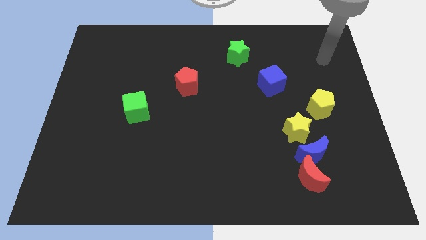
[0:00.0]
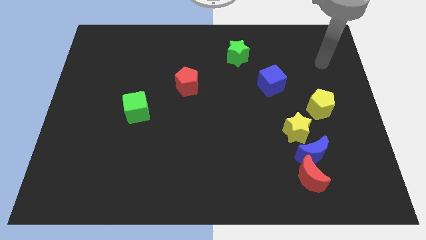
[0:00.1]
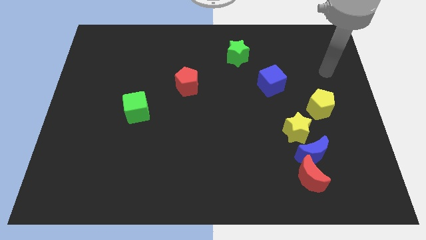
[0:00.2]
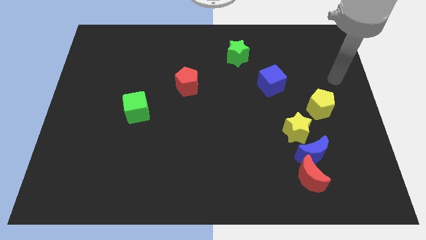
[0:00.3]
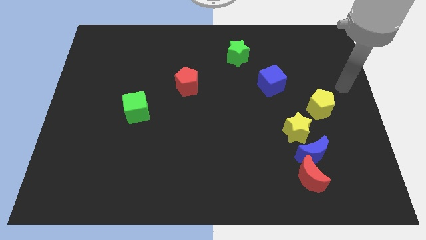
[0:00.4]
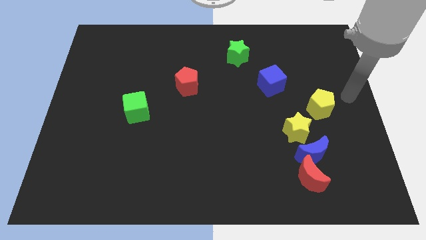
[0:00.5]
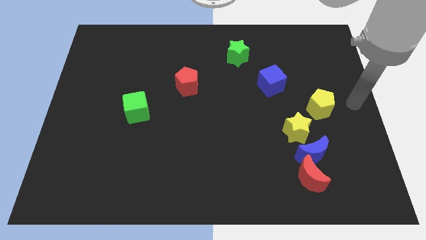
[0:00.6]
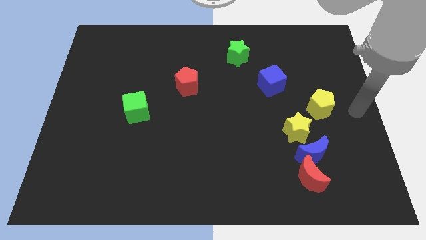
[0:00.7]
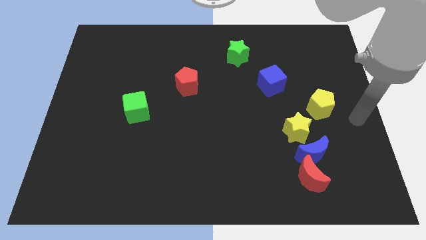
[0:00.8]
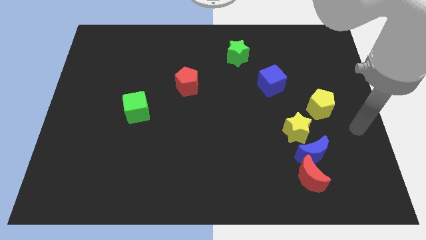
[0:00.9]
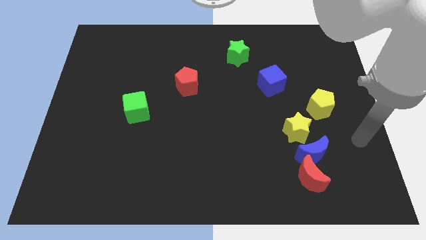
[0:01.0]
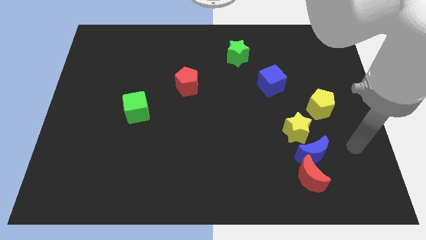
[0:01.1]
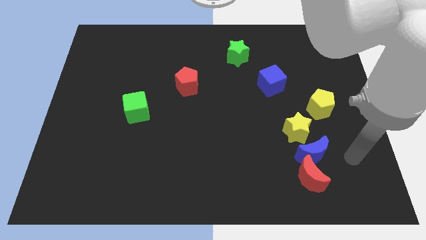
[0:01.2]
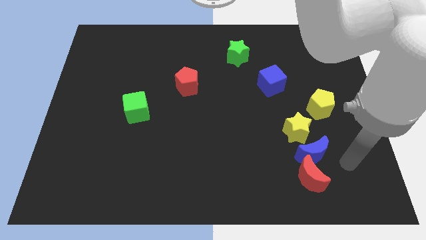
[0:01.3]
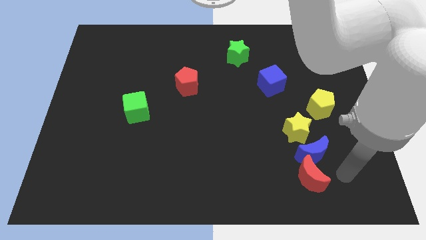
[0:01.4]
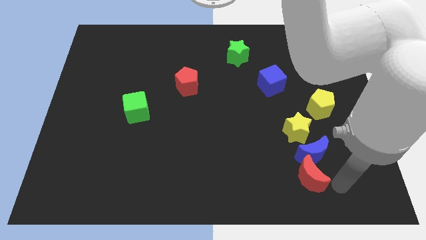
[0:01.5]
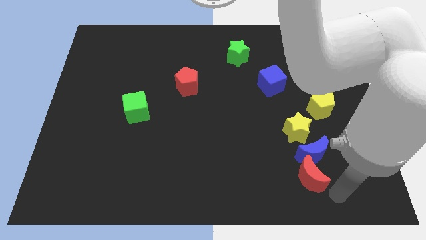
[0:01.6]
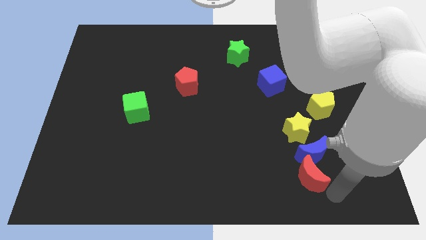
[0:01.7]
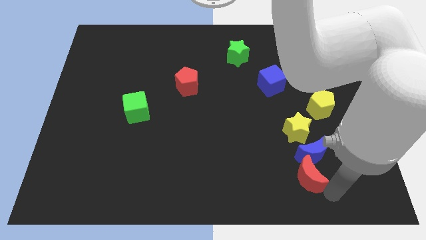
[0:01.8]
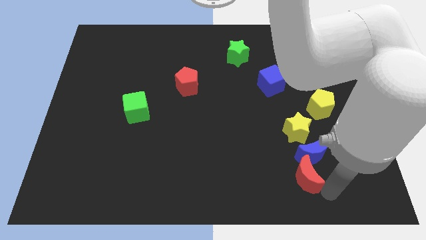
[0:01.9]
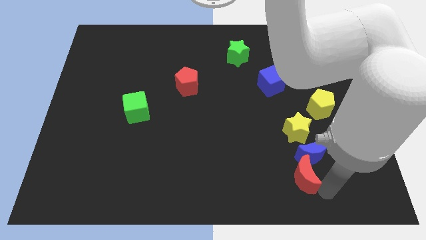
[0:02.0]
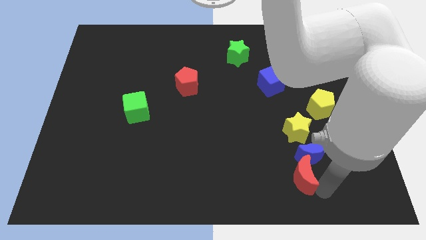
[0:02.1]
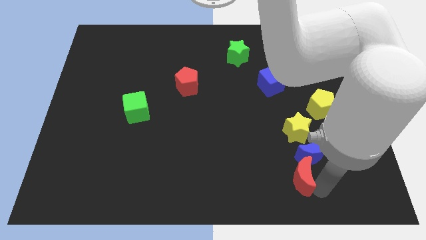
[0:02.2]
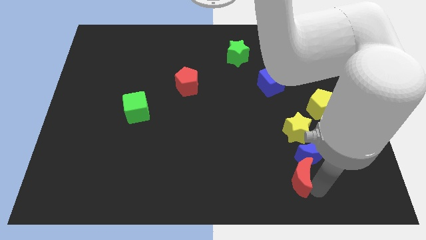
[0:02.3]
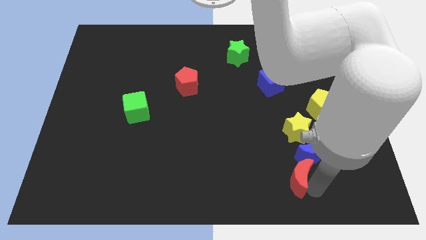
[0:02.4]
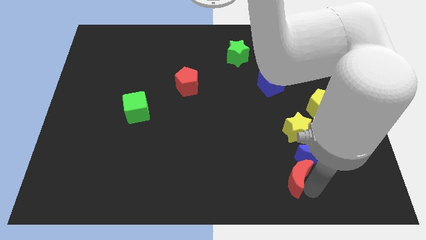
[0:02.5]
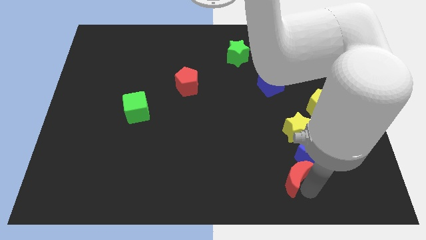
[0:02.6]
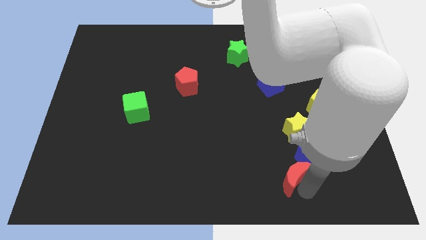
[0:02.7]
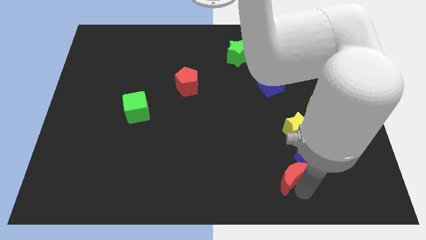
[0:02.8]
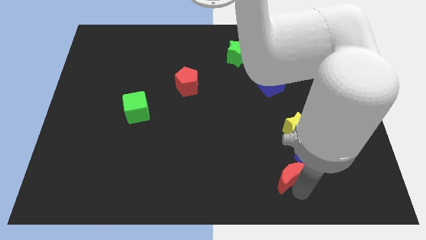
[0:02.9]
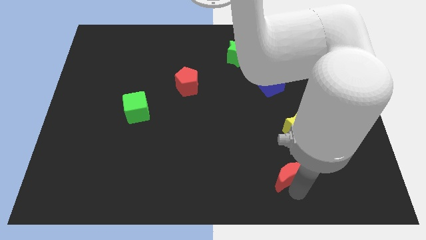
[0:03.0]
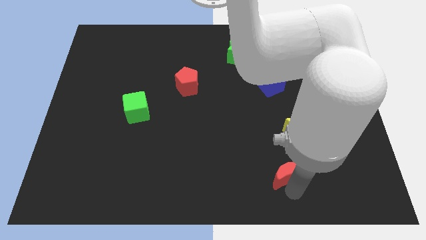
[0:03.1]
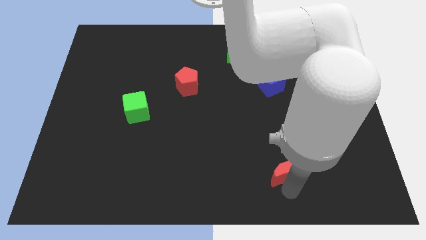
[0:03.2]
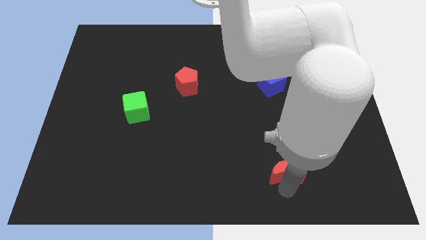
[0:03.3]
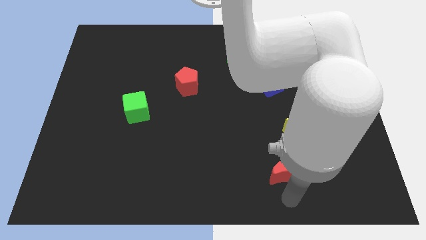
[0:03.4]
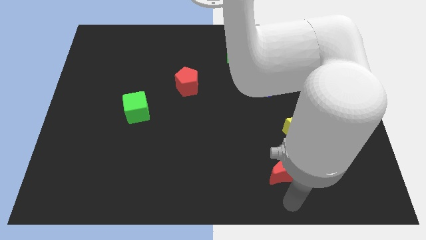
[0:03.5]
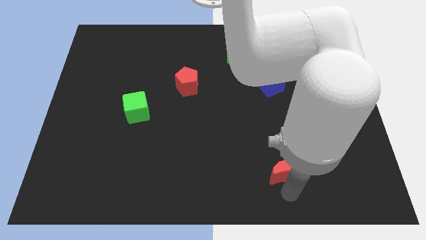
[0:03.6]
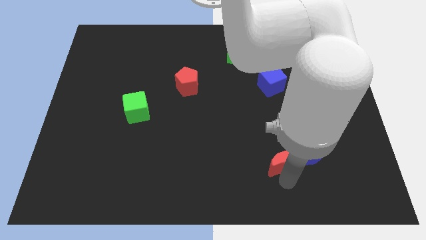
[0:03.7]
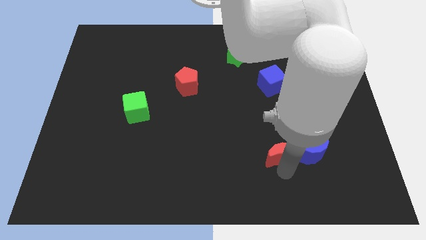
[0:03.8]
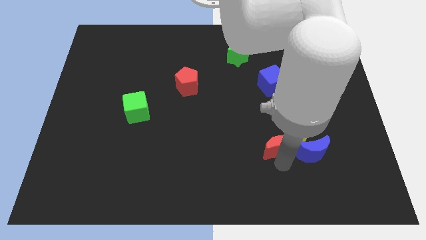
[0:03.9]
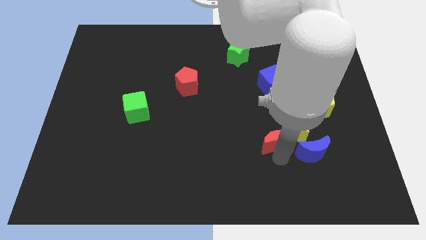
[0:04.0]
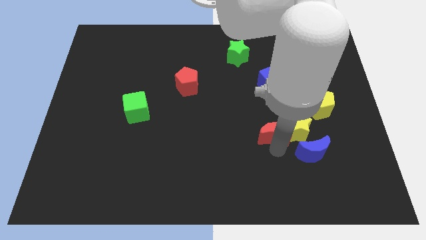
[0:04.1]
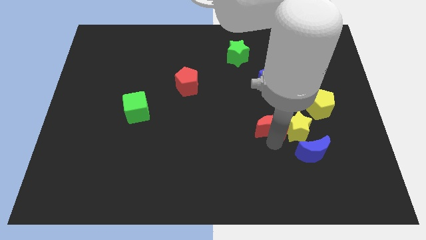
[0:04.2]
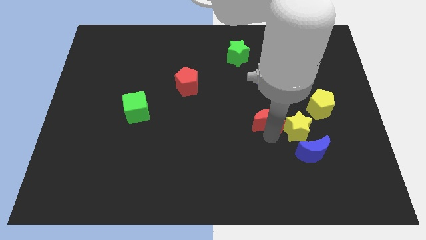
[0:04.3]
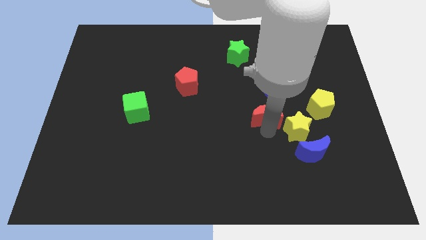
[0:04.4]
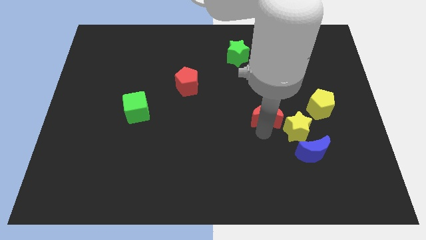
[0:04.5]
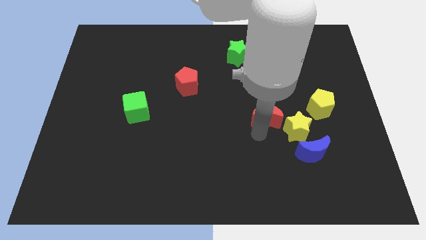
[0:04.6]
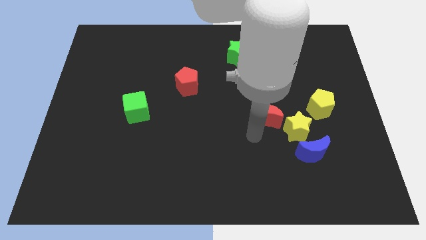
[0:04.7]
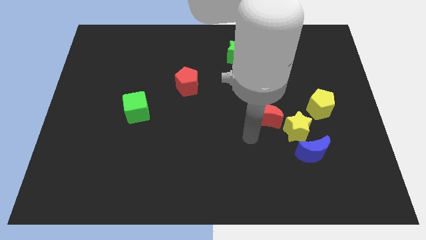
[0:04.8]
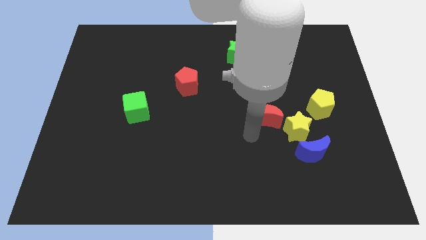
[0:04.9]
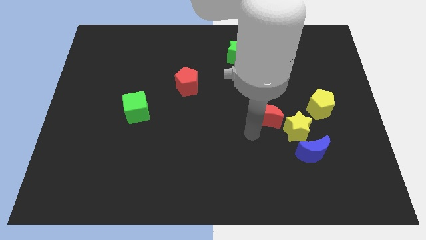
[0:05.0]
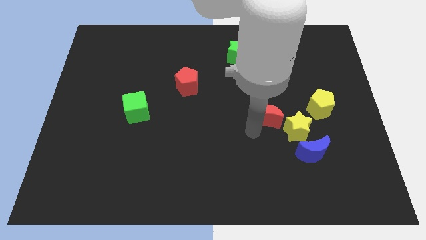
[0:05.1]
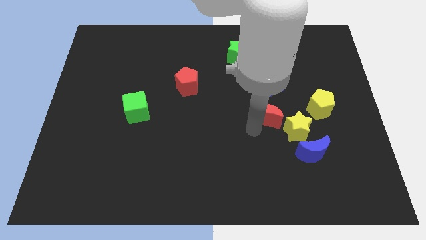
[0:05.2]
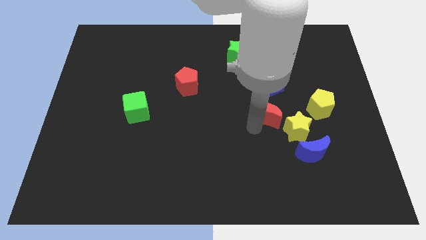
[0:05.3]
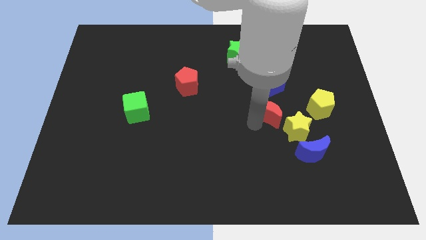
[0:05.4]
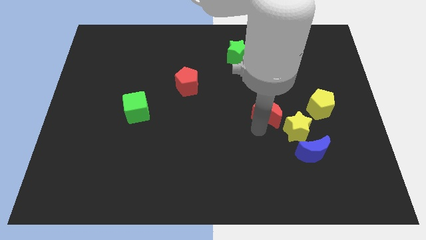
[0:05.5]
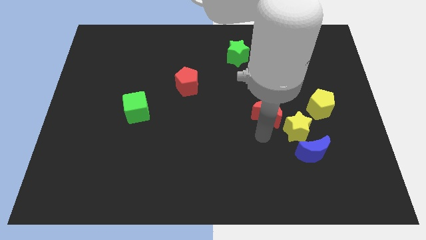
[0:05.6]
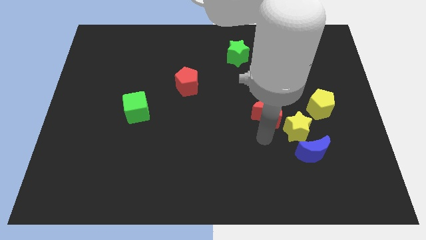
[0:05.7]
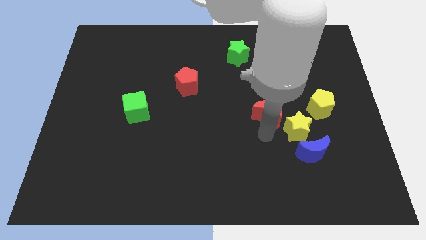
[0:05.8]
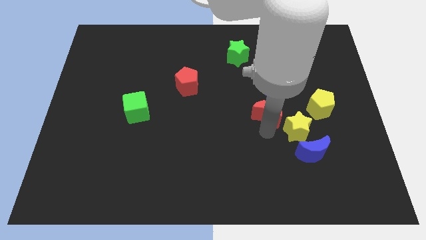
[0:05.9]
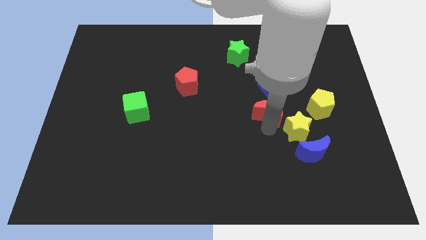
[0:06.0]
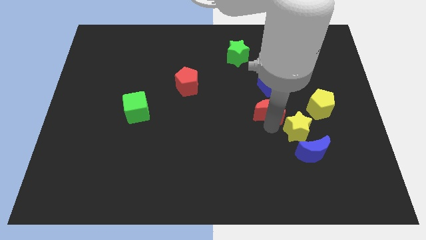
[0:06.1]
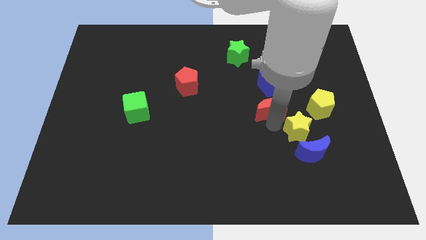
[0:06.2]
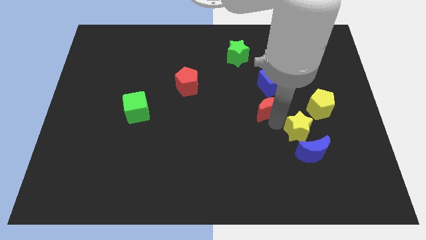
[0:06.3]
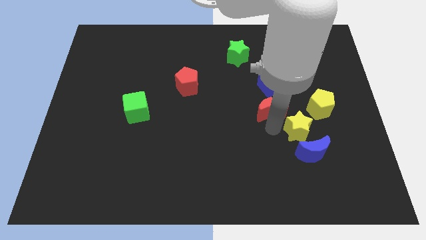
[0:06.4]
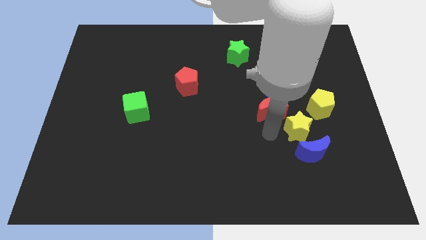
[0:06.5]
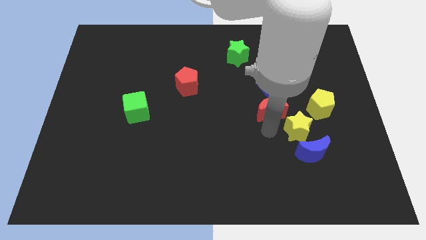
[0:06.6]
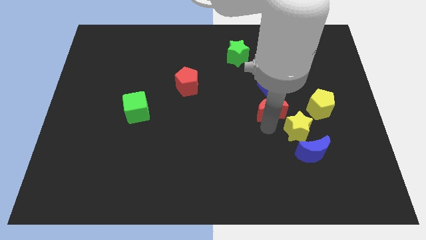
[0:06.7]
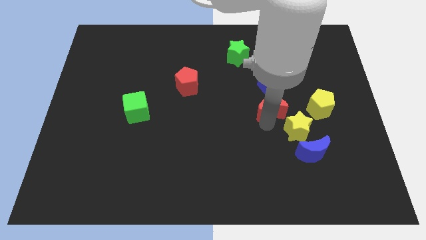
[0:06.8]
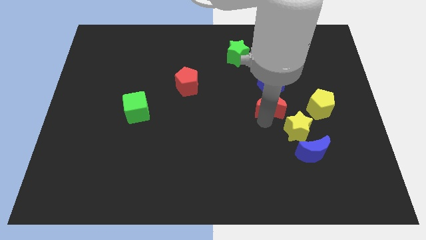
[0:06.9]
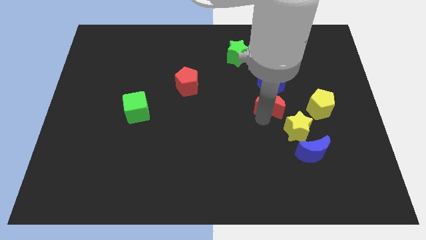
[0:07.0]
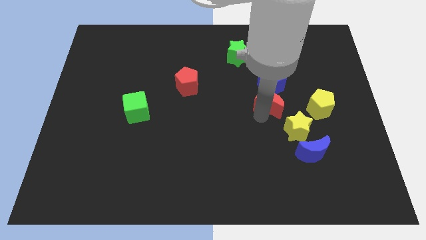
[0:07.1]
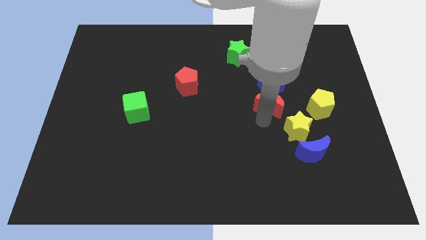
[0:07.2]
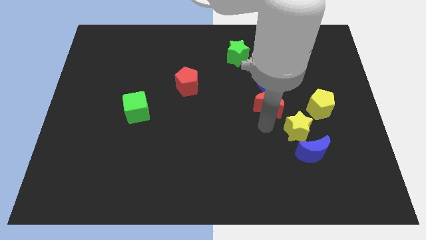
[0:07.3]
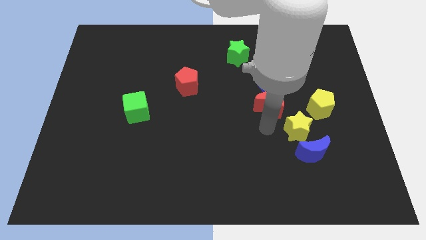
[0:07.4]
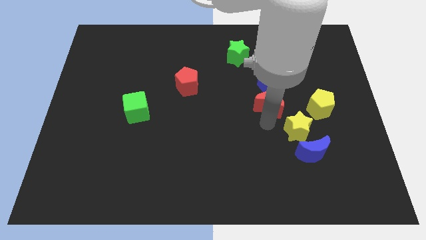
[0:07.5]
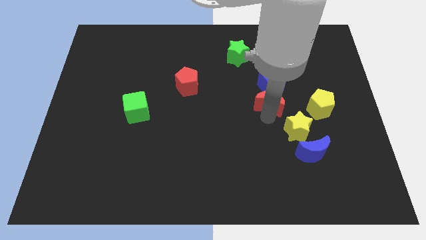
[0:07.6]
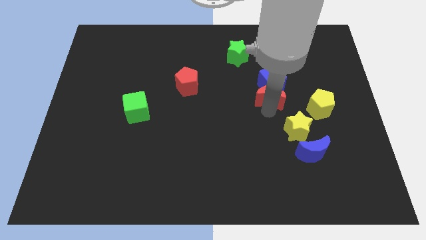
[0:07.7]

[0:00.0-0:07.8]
slide the red moon next to the blue cube
